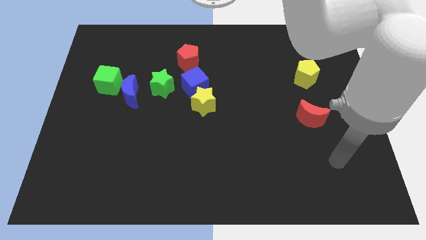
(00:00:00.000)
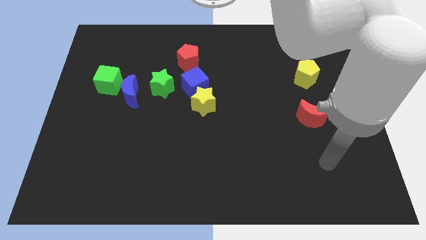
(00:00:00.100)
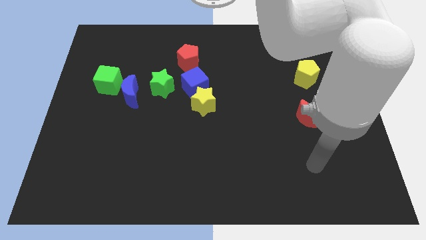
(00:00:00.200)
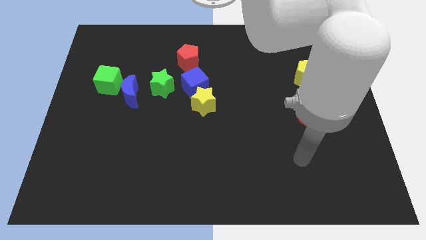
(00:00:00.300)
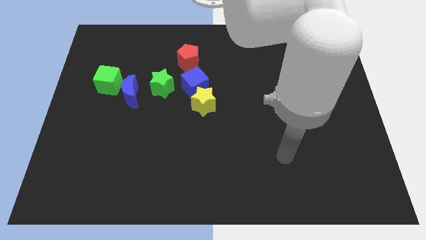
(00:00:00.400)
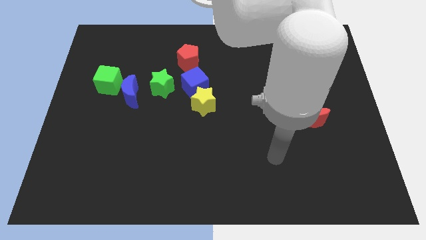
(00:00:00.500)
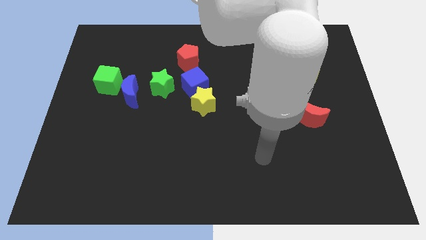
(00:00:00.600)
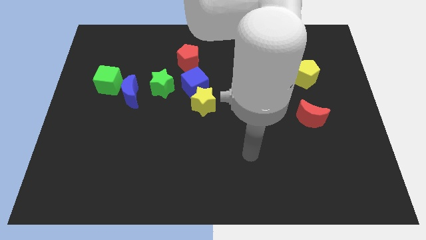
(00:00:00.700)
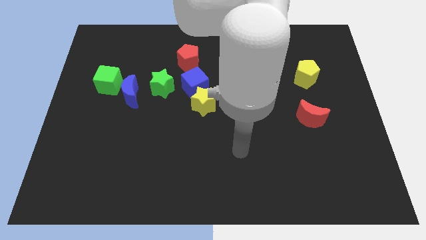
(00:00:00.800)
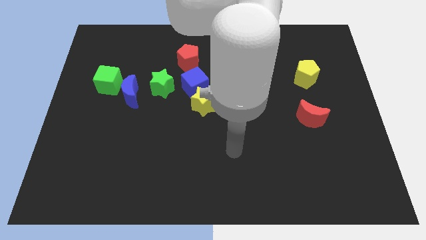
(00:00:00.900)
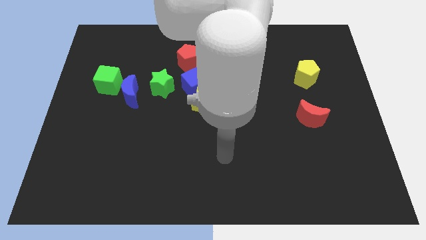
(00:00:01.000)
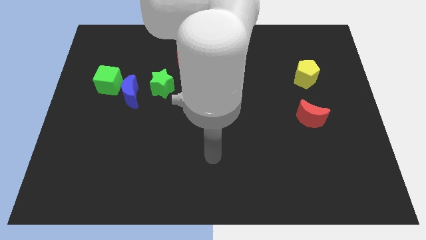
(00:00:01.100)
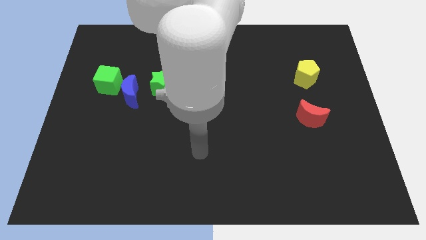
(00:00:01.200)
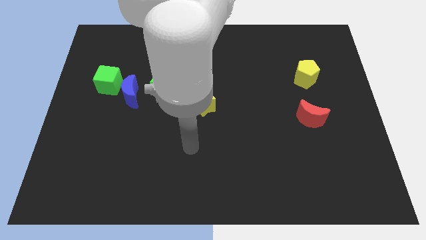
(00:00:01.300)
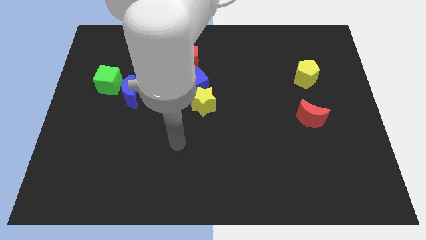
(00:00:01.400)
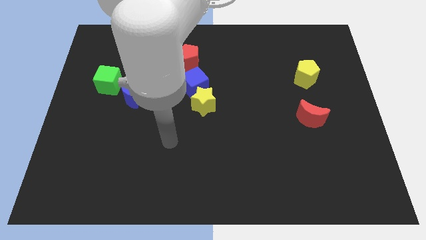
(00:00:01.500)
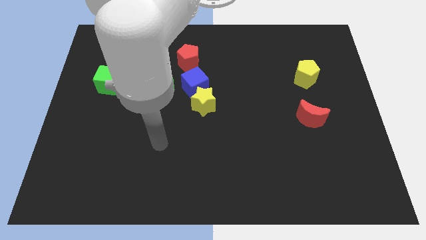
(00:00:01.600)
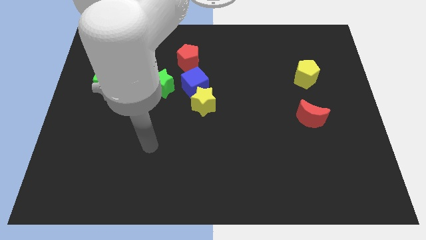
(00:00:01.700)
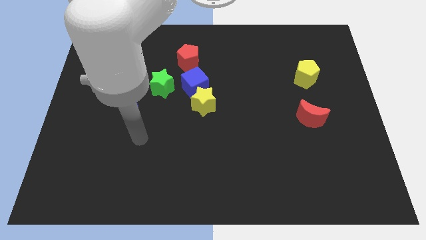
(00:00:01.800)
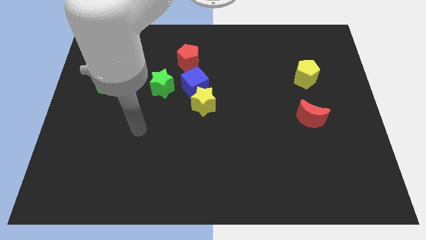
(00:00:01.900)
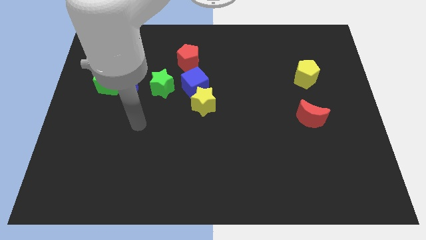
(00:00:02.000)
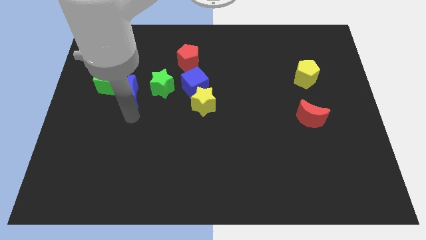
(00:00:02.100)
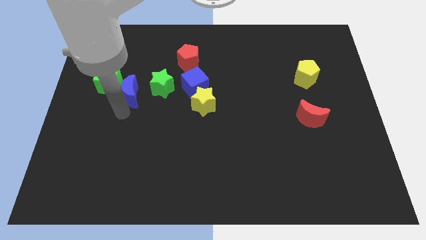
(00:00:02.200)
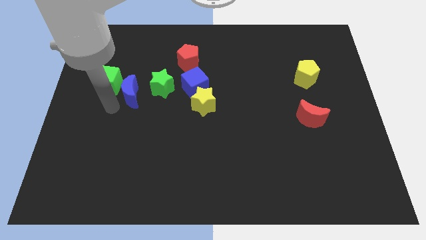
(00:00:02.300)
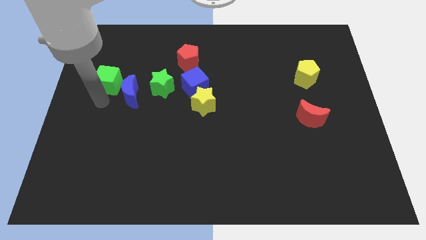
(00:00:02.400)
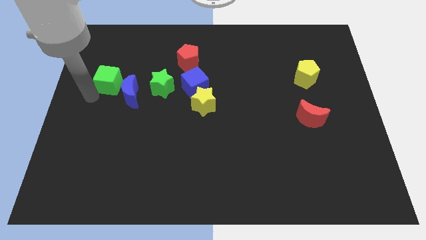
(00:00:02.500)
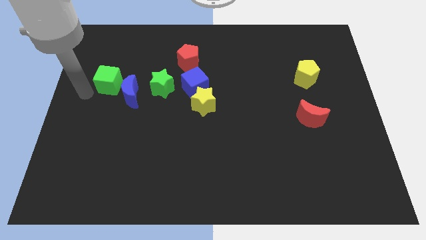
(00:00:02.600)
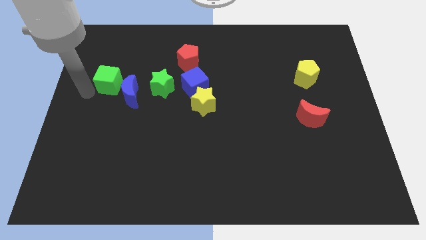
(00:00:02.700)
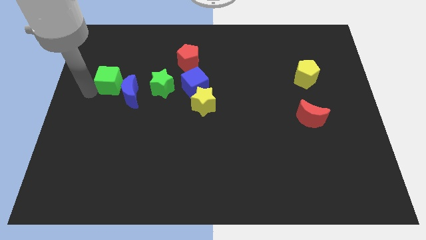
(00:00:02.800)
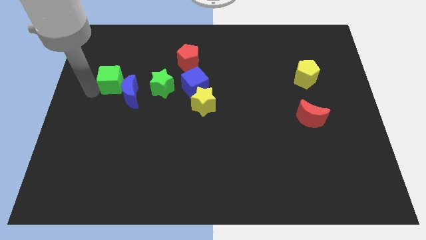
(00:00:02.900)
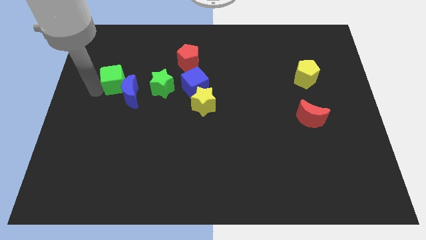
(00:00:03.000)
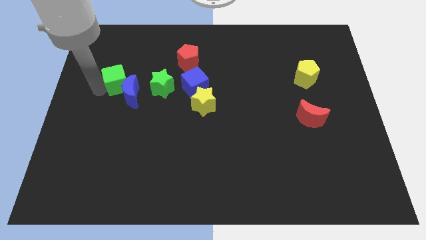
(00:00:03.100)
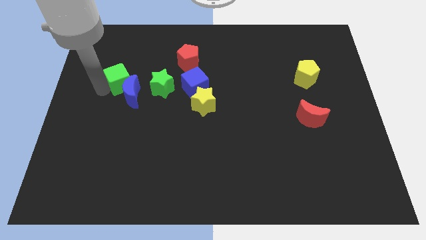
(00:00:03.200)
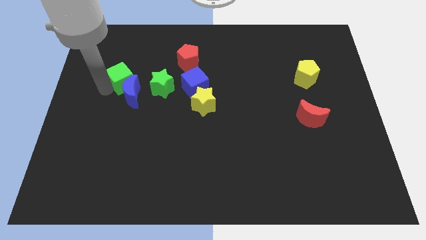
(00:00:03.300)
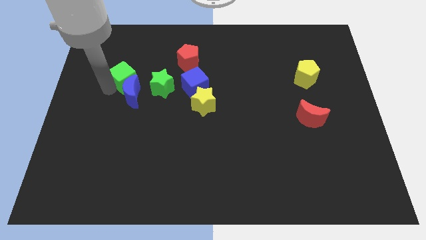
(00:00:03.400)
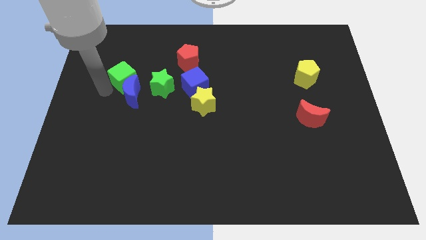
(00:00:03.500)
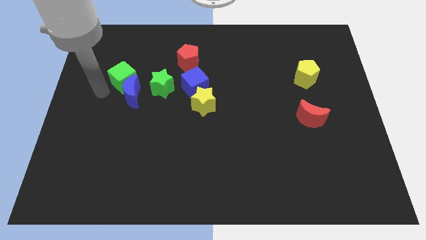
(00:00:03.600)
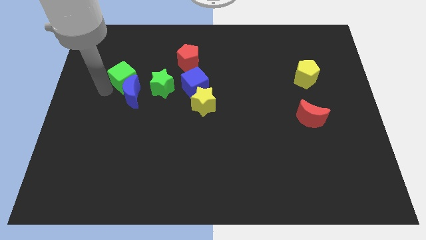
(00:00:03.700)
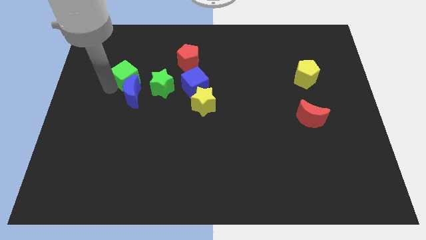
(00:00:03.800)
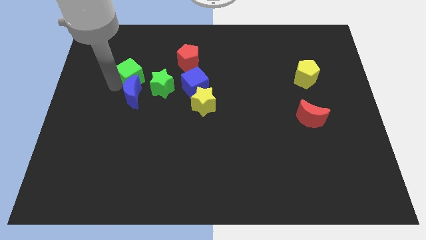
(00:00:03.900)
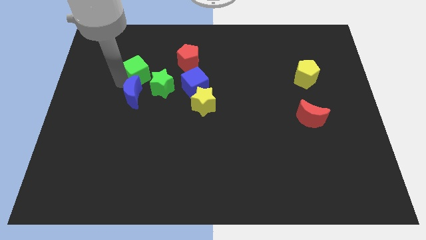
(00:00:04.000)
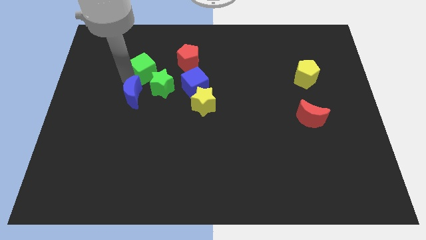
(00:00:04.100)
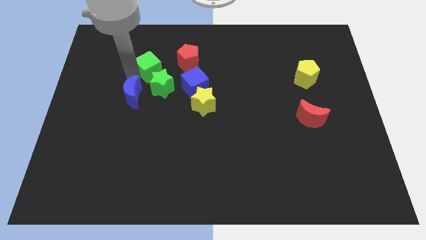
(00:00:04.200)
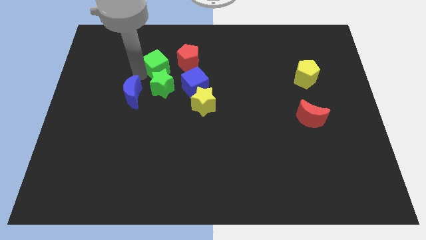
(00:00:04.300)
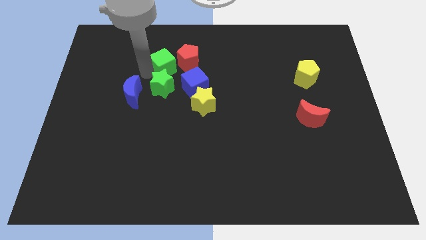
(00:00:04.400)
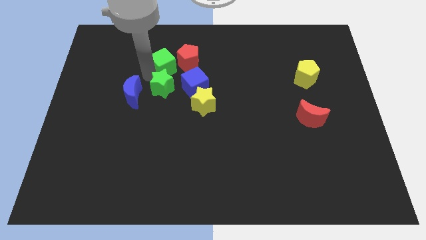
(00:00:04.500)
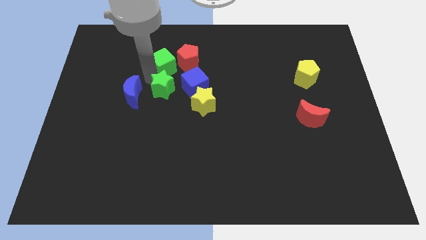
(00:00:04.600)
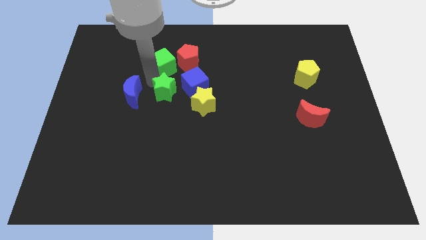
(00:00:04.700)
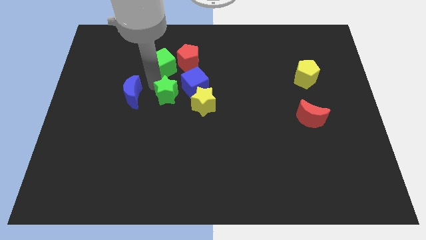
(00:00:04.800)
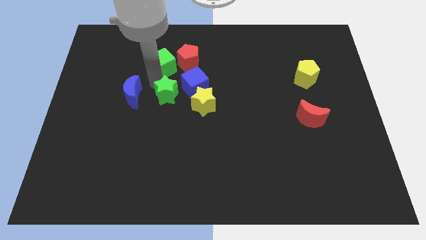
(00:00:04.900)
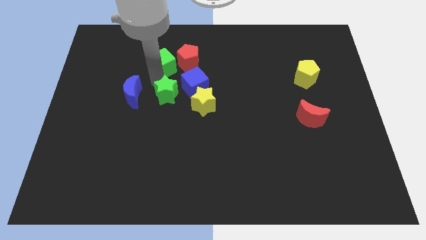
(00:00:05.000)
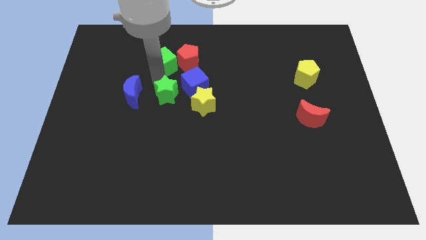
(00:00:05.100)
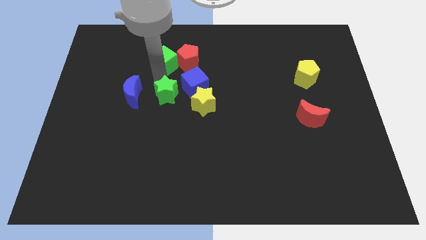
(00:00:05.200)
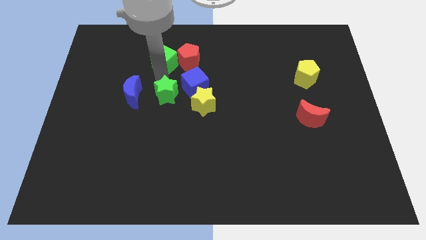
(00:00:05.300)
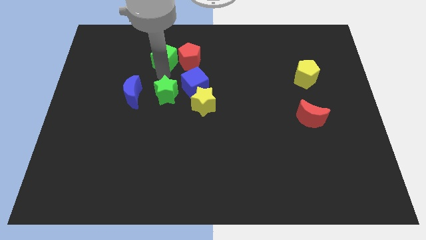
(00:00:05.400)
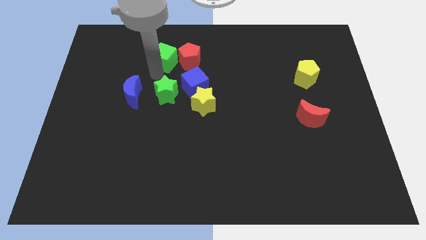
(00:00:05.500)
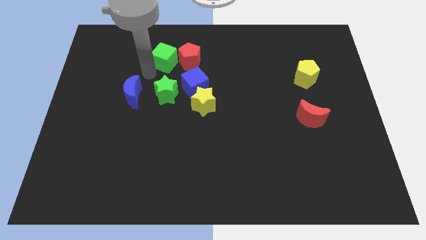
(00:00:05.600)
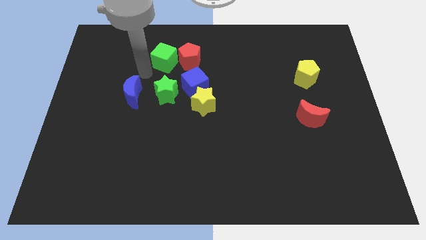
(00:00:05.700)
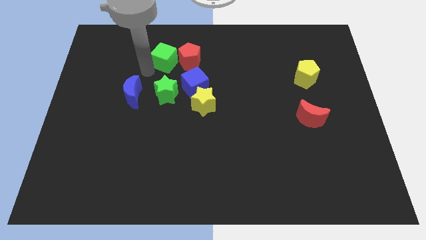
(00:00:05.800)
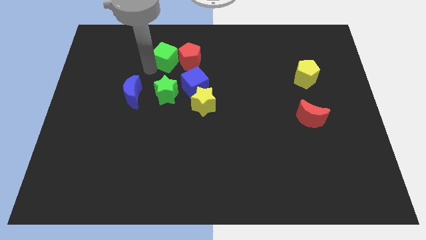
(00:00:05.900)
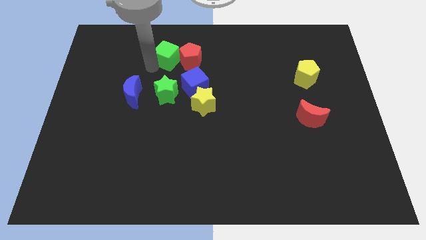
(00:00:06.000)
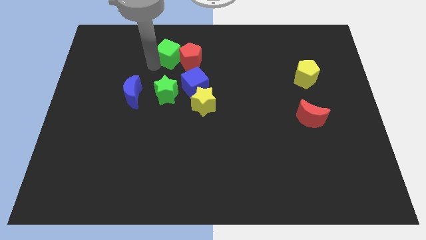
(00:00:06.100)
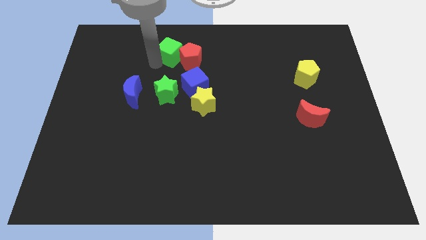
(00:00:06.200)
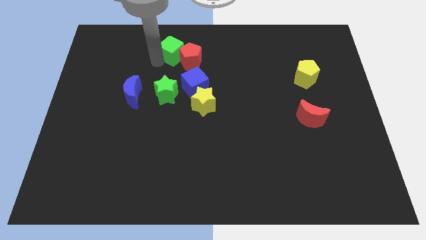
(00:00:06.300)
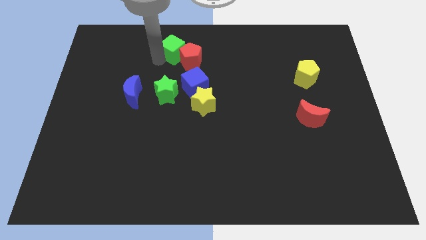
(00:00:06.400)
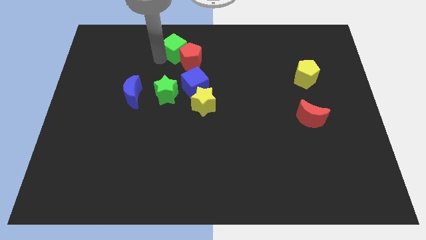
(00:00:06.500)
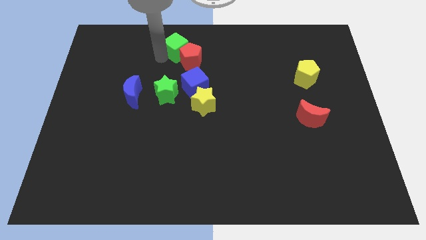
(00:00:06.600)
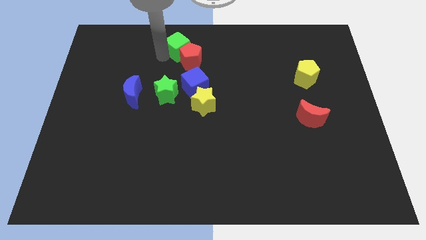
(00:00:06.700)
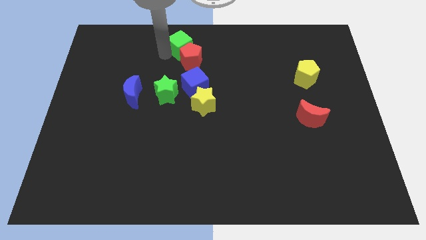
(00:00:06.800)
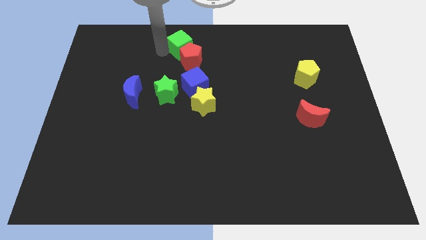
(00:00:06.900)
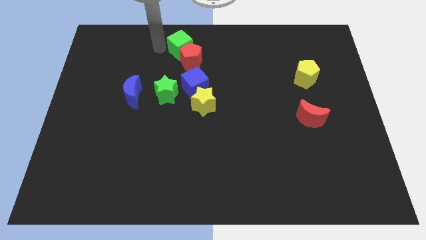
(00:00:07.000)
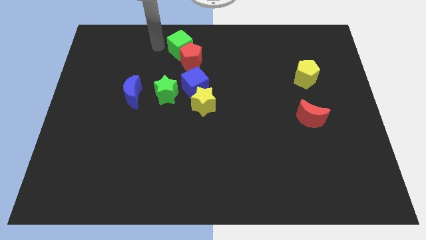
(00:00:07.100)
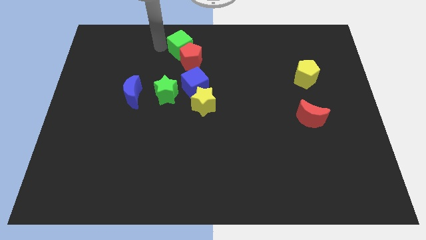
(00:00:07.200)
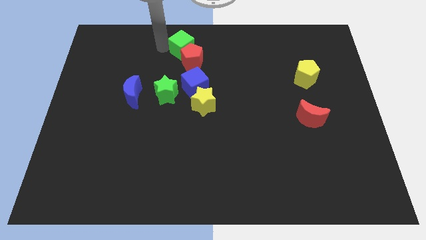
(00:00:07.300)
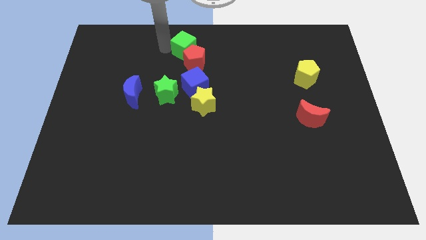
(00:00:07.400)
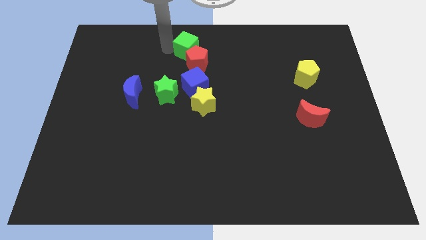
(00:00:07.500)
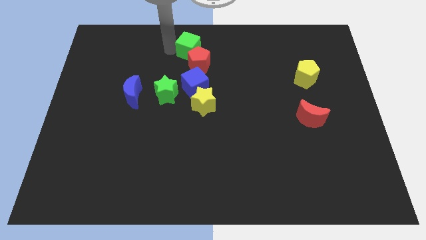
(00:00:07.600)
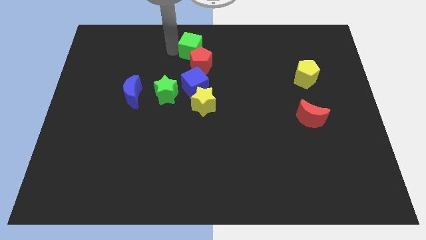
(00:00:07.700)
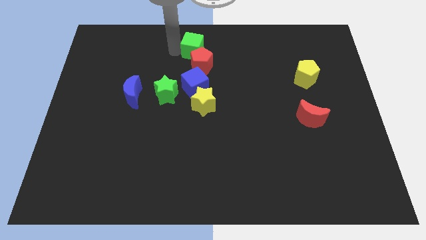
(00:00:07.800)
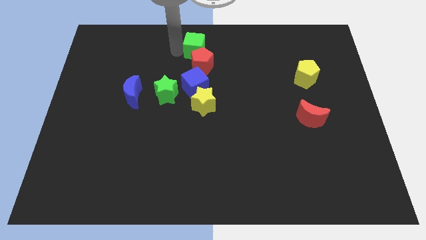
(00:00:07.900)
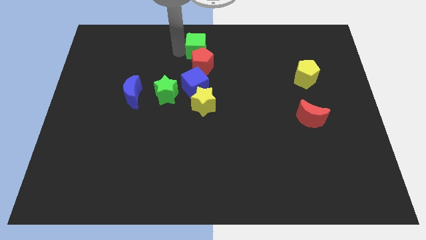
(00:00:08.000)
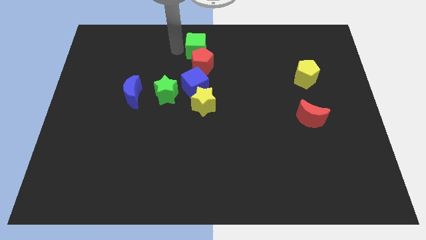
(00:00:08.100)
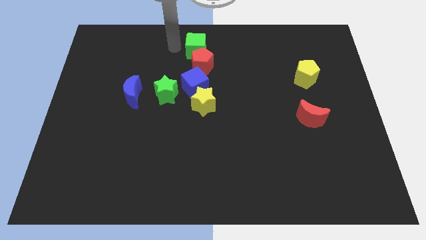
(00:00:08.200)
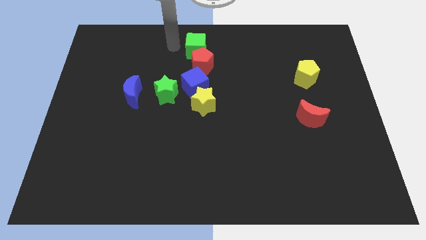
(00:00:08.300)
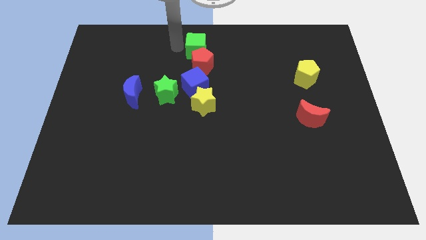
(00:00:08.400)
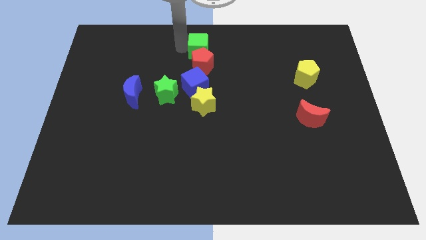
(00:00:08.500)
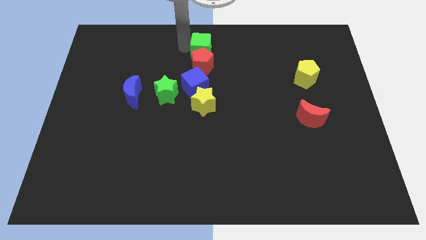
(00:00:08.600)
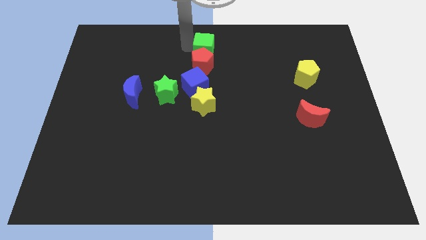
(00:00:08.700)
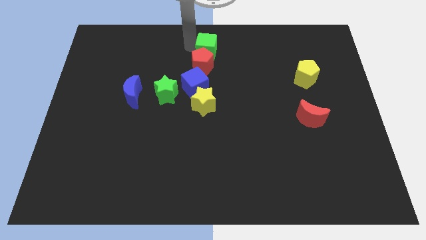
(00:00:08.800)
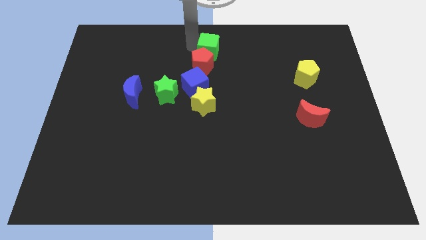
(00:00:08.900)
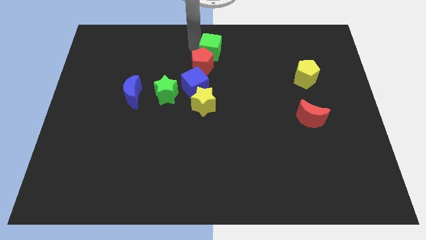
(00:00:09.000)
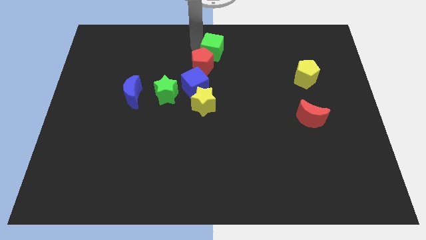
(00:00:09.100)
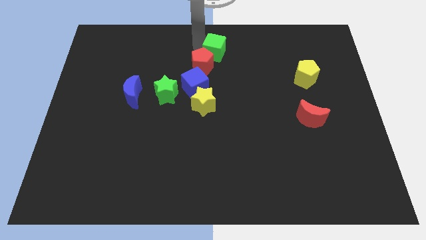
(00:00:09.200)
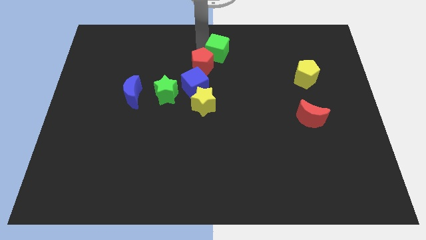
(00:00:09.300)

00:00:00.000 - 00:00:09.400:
push the green cube to the right
